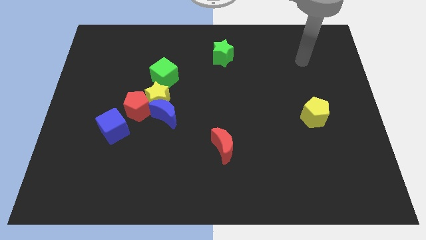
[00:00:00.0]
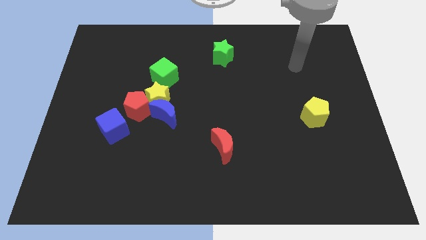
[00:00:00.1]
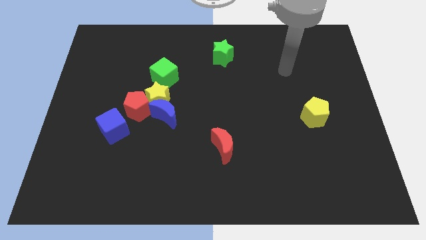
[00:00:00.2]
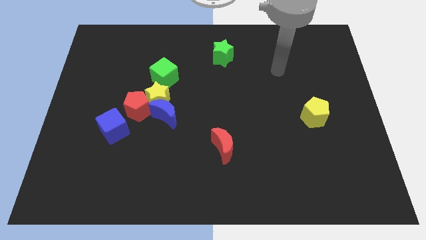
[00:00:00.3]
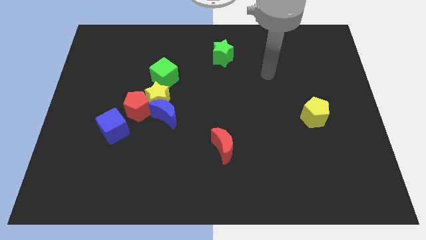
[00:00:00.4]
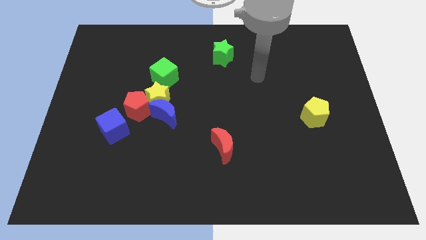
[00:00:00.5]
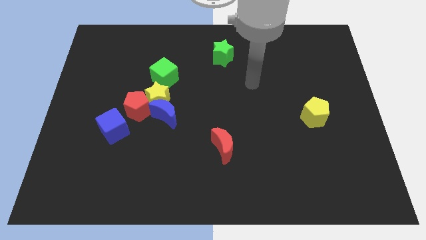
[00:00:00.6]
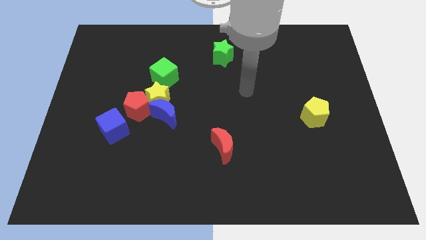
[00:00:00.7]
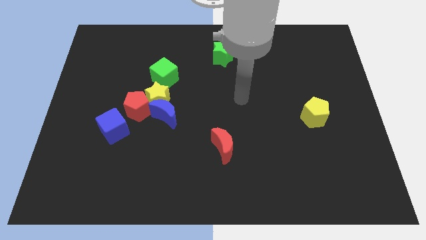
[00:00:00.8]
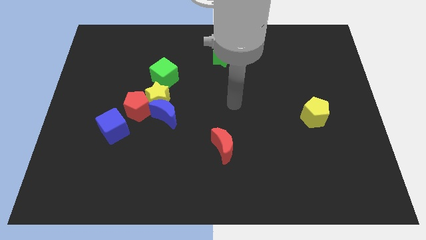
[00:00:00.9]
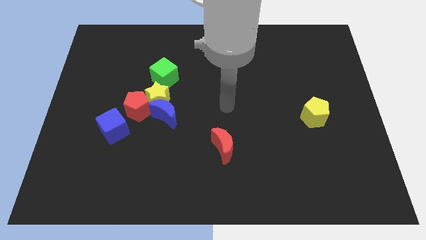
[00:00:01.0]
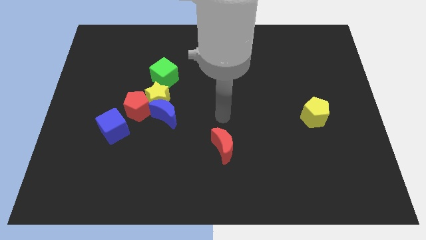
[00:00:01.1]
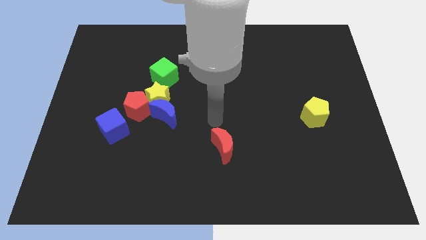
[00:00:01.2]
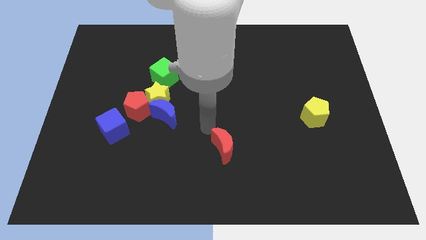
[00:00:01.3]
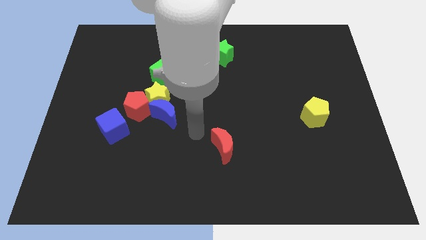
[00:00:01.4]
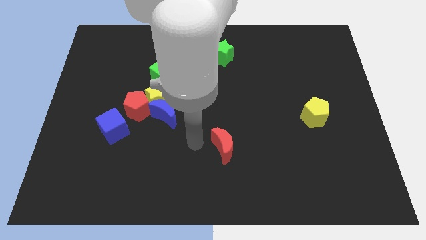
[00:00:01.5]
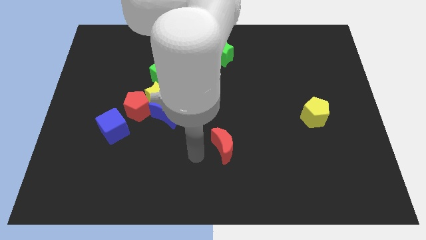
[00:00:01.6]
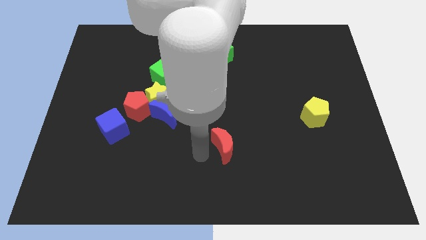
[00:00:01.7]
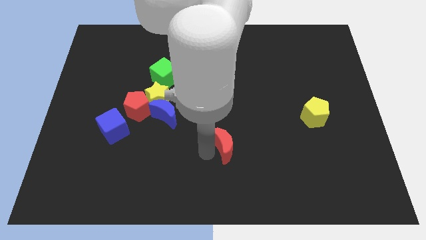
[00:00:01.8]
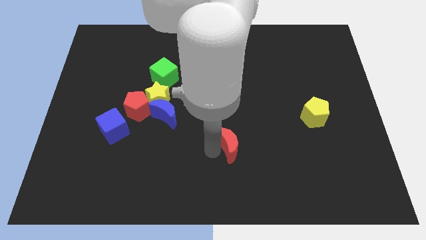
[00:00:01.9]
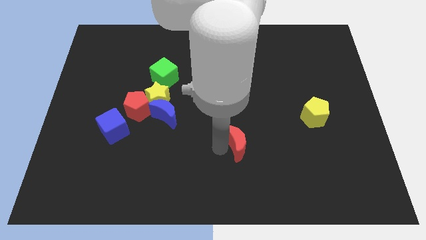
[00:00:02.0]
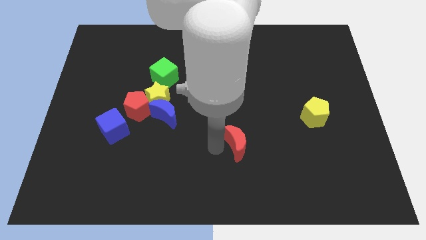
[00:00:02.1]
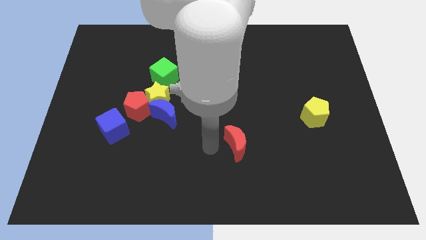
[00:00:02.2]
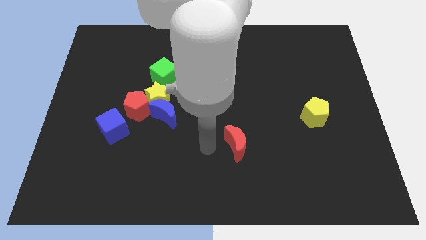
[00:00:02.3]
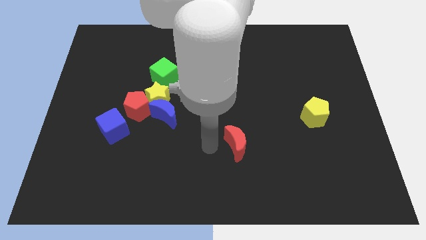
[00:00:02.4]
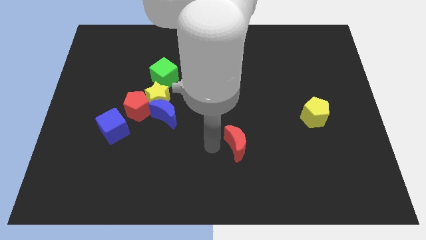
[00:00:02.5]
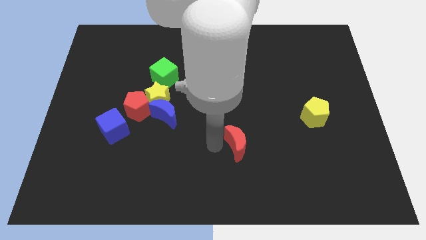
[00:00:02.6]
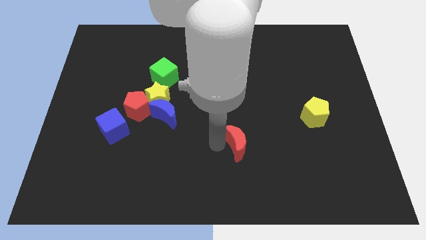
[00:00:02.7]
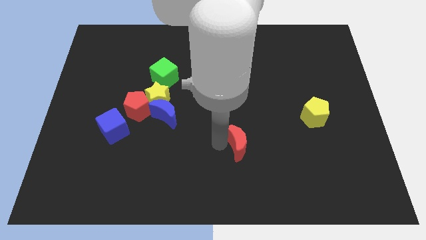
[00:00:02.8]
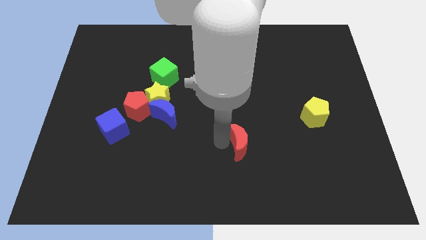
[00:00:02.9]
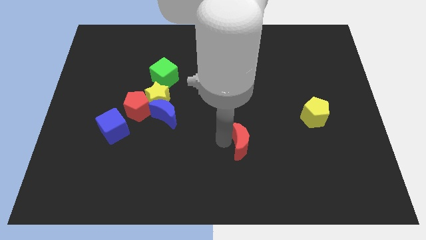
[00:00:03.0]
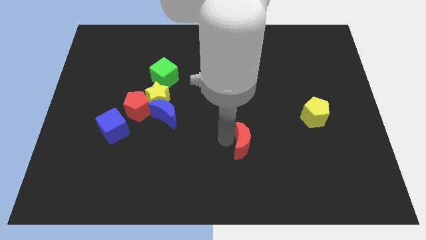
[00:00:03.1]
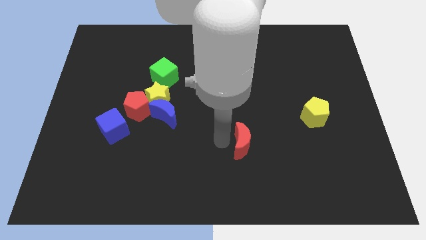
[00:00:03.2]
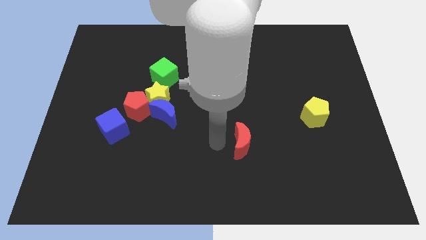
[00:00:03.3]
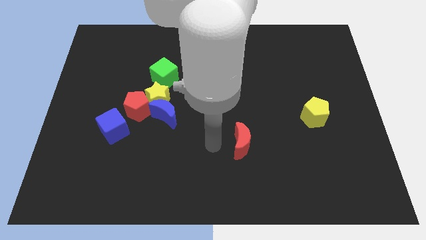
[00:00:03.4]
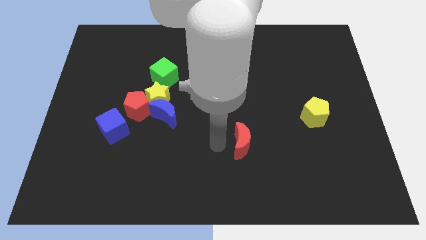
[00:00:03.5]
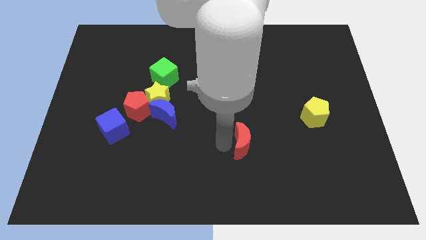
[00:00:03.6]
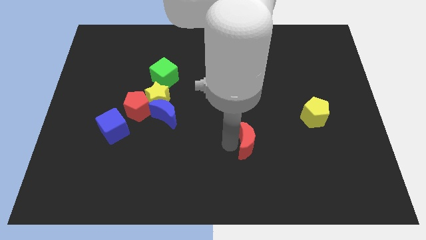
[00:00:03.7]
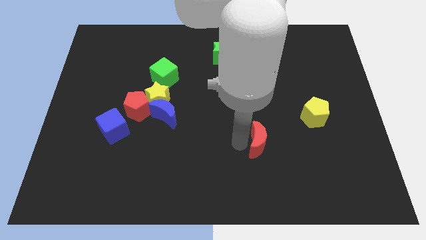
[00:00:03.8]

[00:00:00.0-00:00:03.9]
slightly push the red moon right

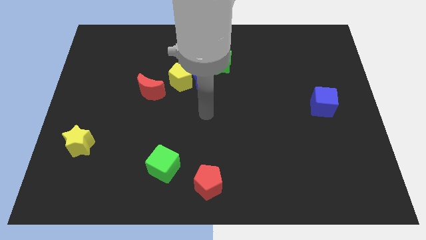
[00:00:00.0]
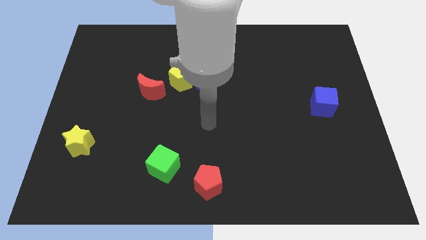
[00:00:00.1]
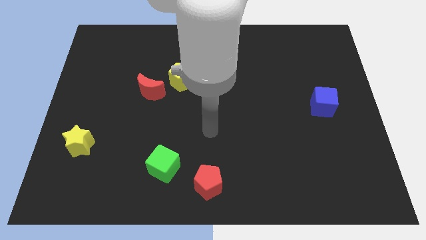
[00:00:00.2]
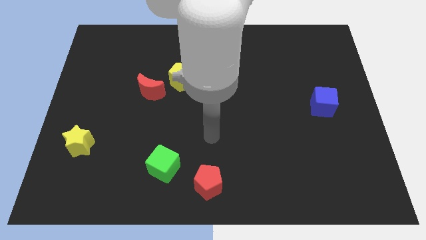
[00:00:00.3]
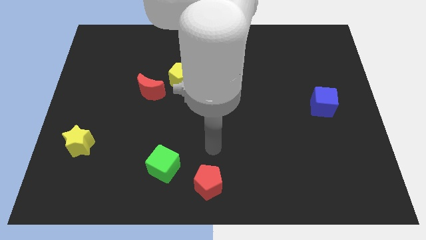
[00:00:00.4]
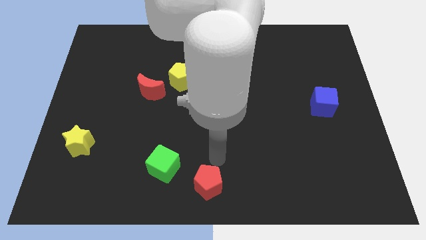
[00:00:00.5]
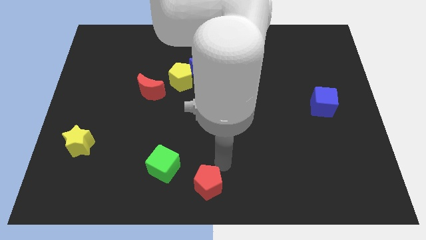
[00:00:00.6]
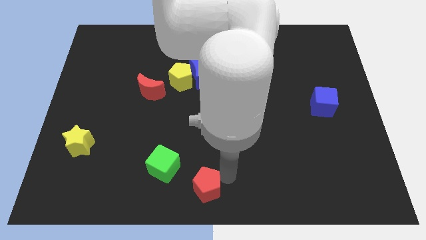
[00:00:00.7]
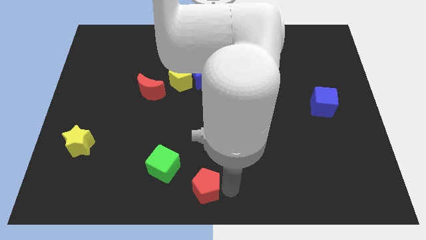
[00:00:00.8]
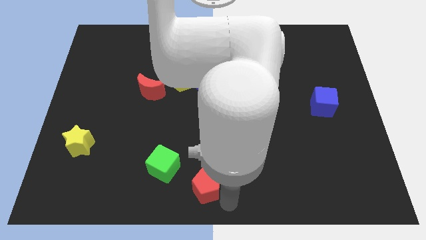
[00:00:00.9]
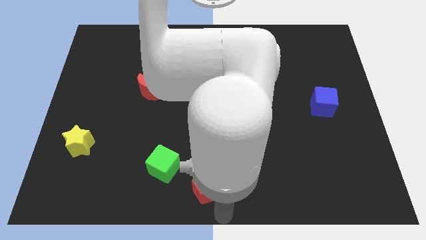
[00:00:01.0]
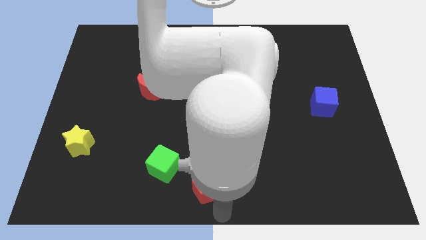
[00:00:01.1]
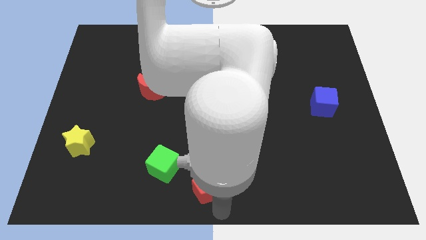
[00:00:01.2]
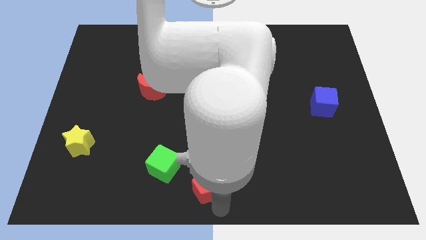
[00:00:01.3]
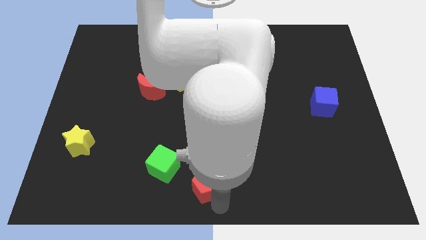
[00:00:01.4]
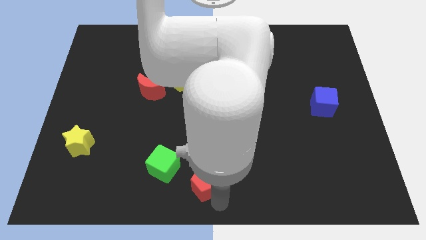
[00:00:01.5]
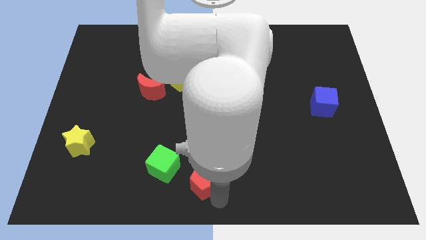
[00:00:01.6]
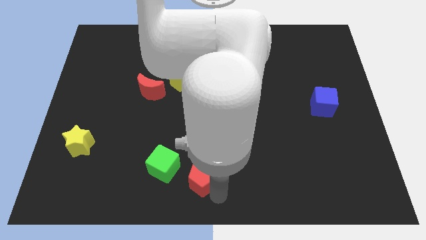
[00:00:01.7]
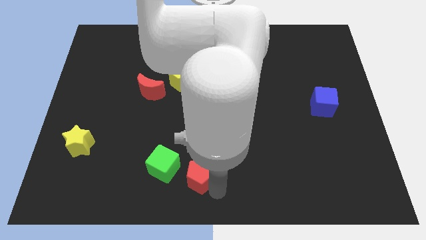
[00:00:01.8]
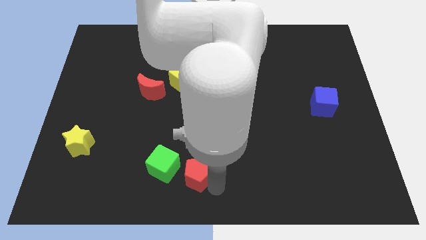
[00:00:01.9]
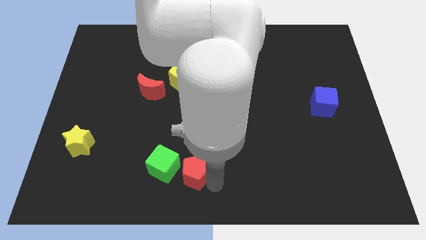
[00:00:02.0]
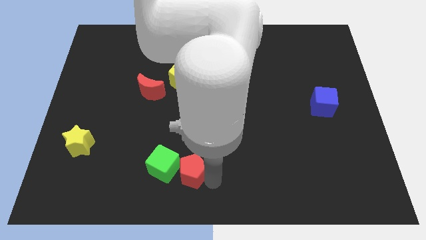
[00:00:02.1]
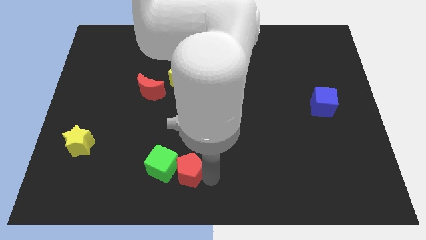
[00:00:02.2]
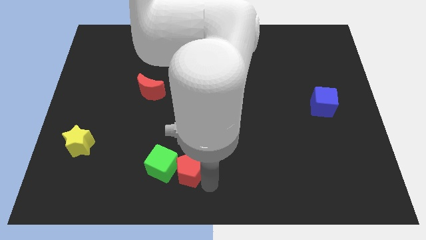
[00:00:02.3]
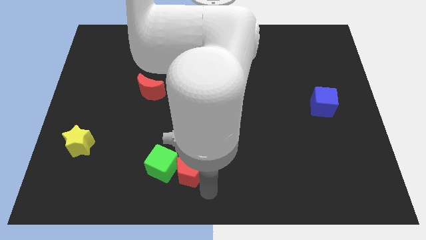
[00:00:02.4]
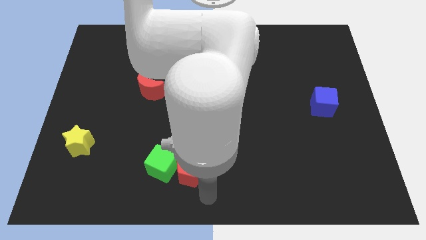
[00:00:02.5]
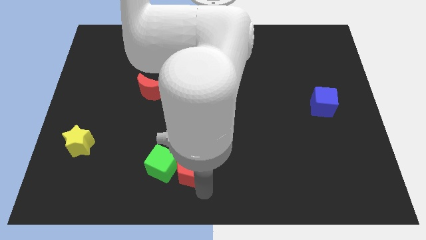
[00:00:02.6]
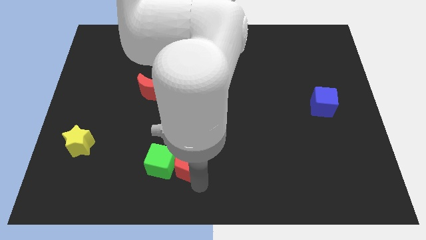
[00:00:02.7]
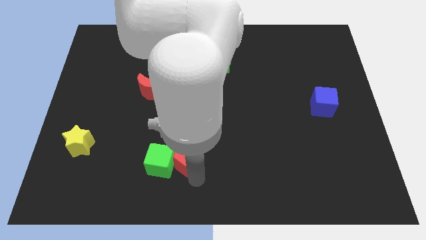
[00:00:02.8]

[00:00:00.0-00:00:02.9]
slide the red pentagon slightly up and then left

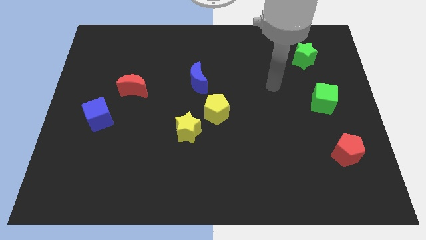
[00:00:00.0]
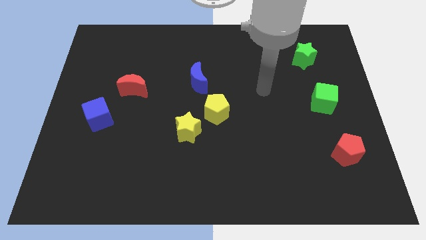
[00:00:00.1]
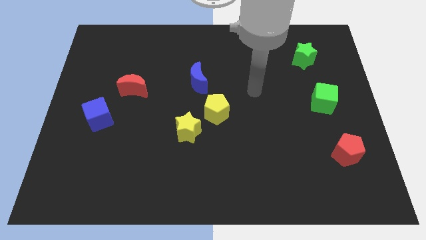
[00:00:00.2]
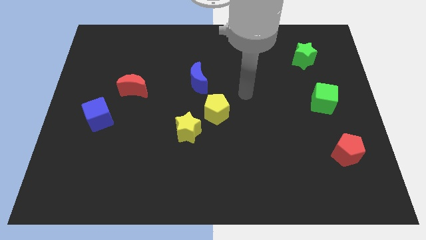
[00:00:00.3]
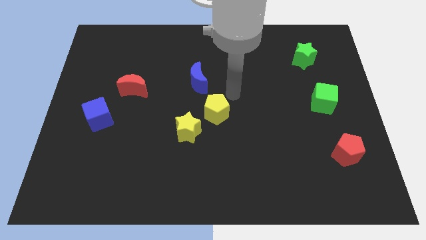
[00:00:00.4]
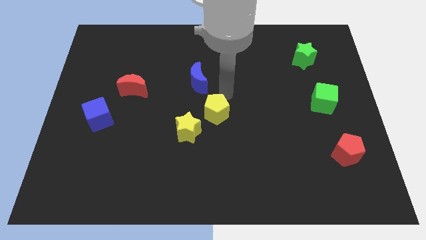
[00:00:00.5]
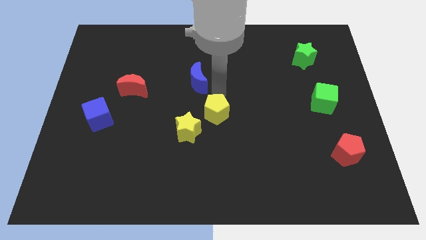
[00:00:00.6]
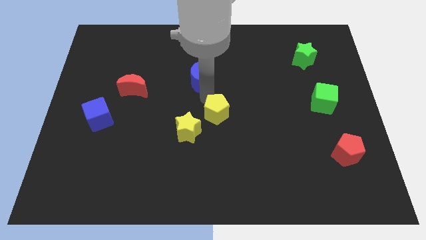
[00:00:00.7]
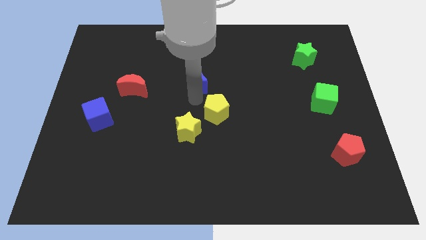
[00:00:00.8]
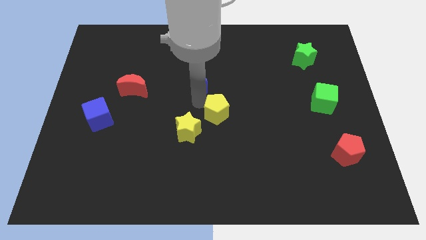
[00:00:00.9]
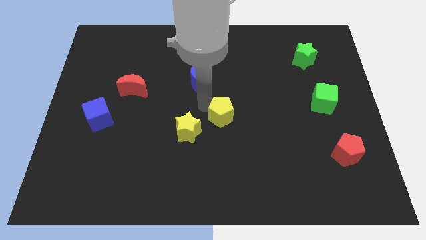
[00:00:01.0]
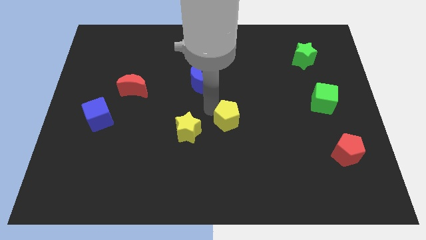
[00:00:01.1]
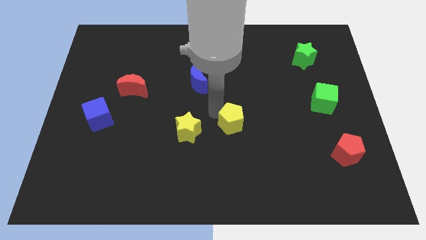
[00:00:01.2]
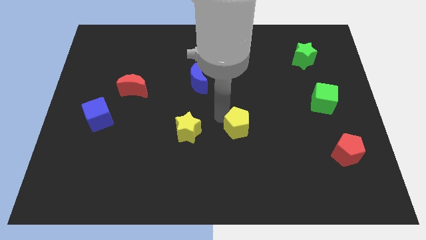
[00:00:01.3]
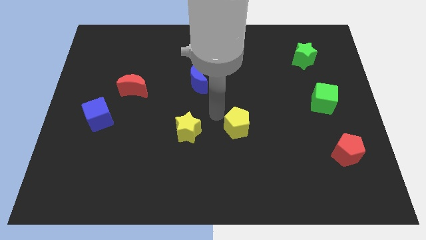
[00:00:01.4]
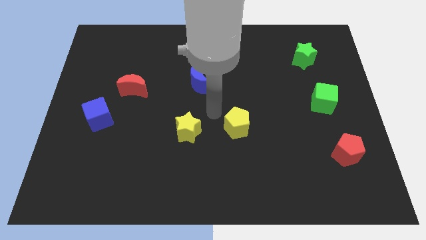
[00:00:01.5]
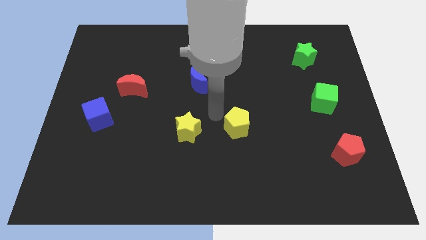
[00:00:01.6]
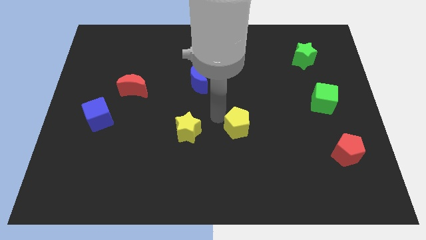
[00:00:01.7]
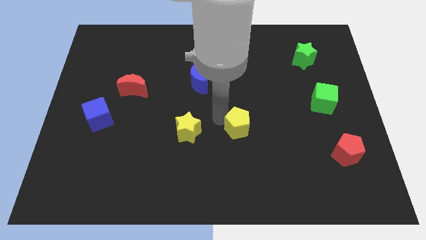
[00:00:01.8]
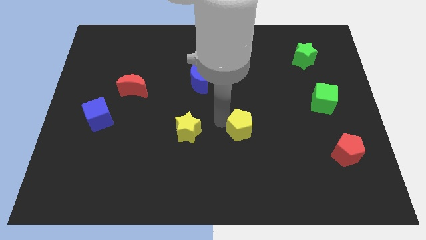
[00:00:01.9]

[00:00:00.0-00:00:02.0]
slightly push the yellow pentagon down and then right
